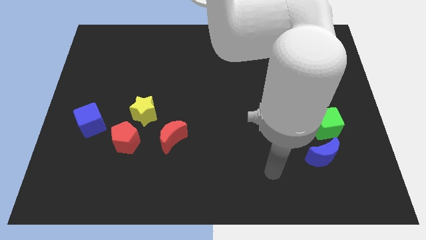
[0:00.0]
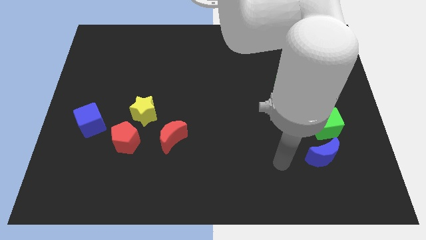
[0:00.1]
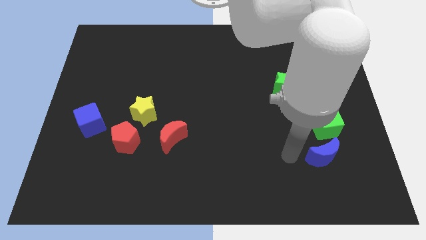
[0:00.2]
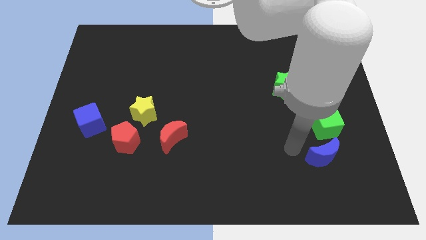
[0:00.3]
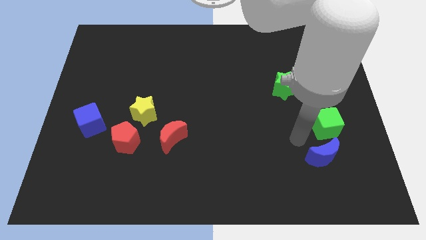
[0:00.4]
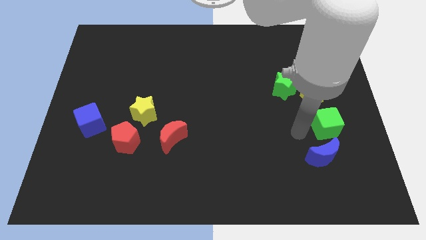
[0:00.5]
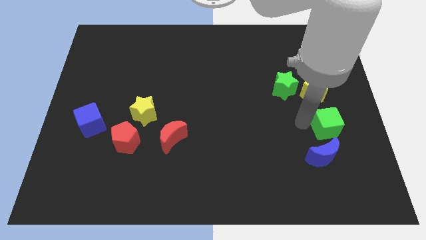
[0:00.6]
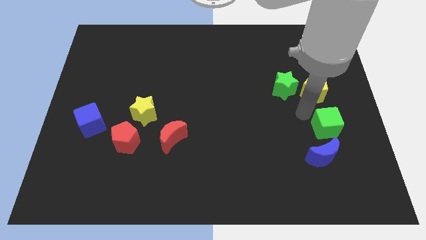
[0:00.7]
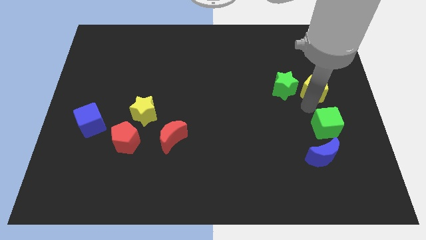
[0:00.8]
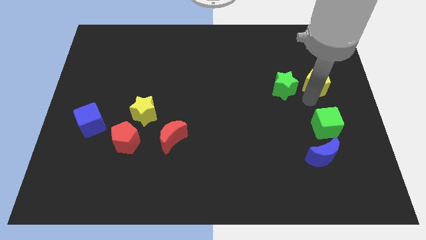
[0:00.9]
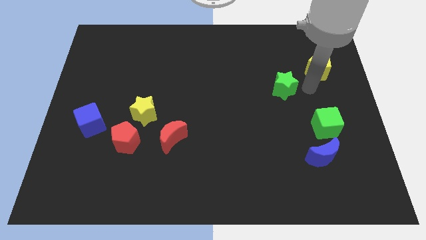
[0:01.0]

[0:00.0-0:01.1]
separate the green star from the yellow pentagon

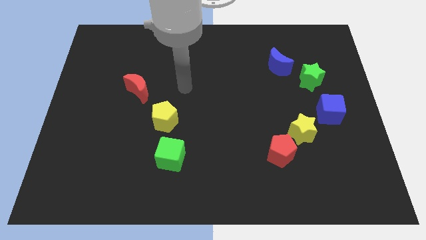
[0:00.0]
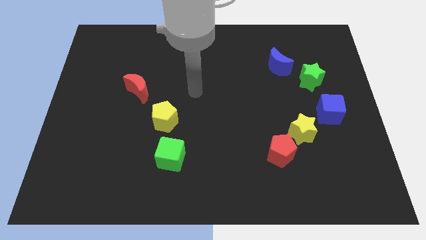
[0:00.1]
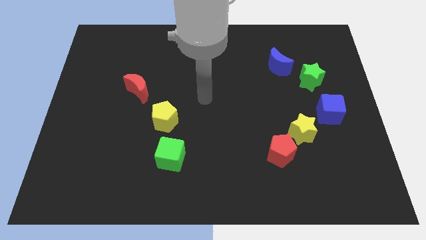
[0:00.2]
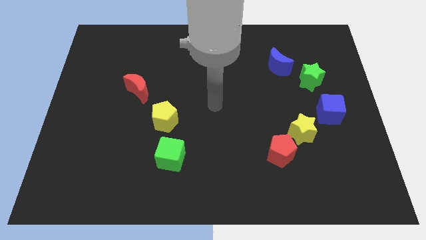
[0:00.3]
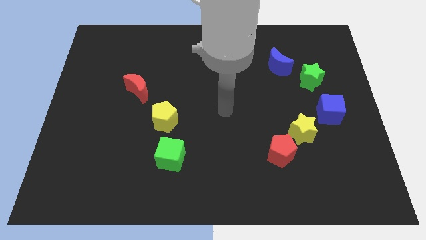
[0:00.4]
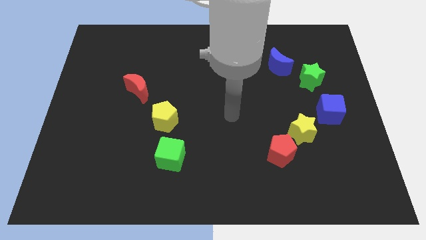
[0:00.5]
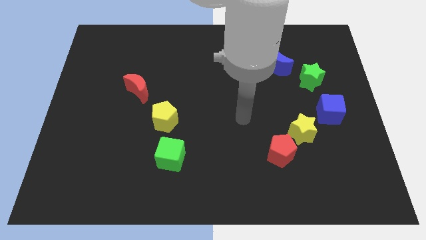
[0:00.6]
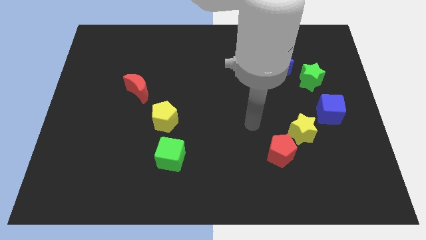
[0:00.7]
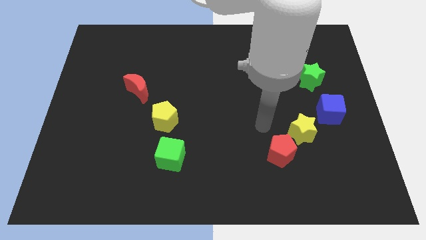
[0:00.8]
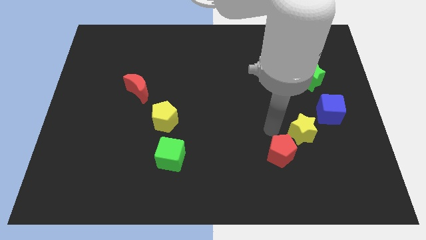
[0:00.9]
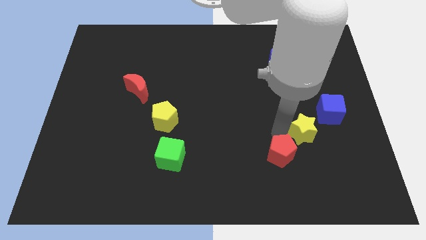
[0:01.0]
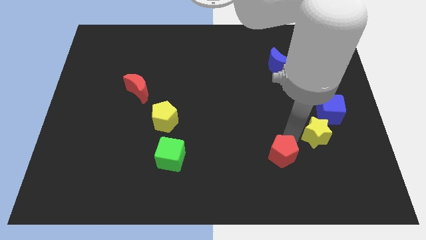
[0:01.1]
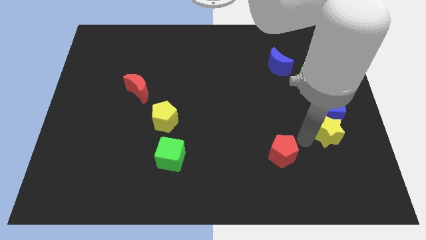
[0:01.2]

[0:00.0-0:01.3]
move the red pentagon away from the yellow star

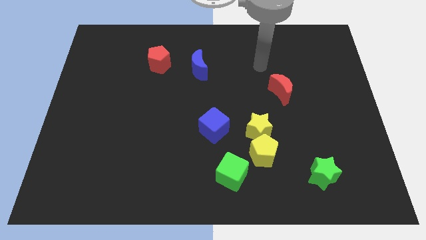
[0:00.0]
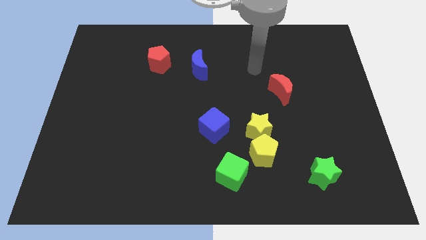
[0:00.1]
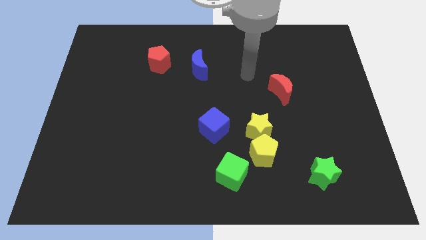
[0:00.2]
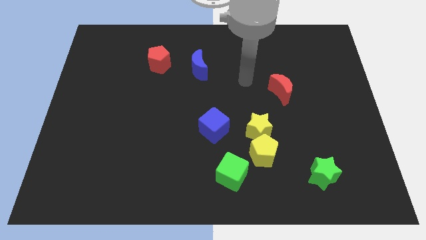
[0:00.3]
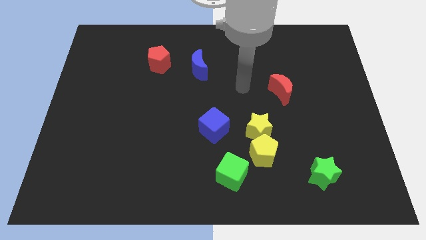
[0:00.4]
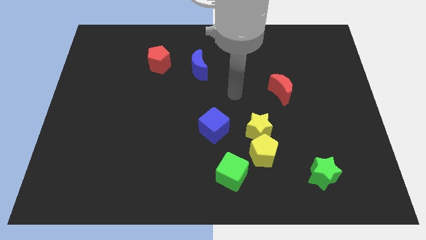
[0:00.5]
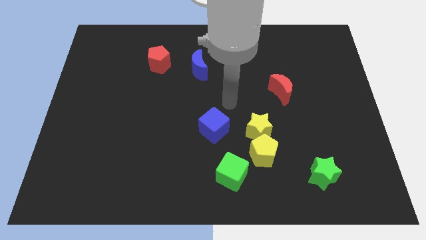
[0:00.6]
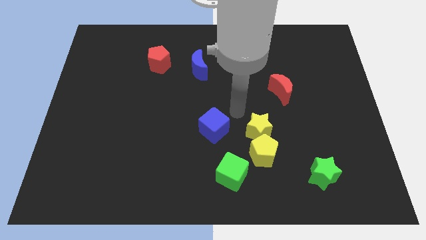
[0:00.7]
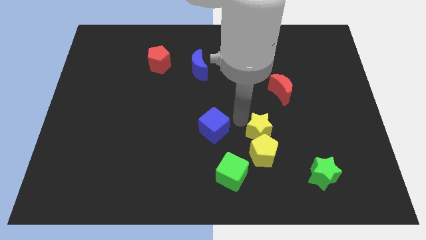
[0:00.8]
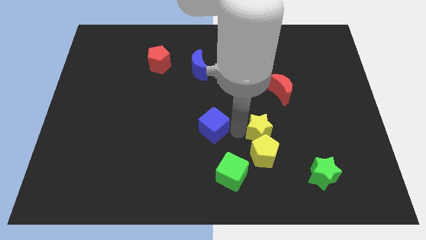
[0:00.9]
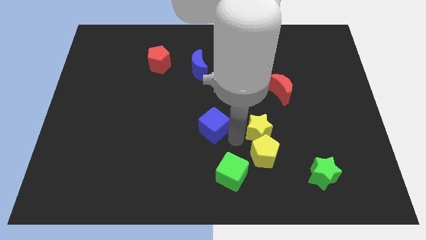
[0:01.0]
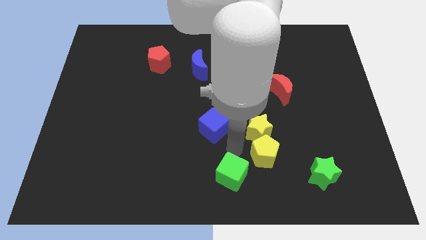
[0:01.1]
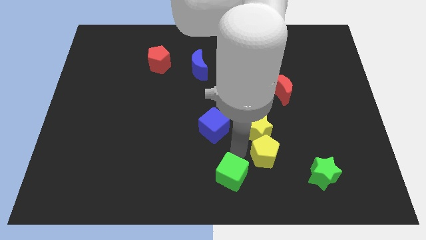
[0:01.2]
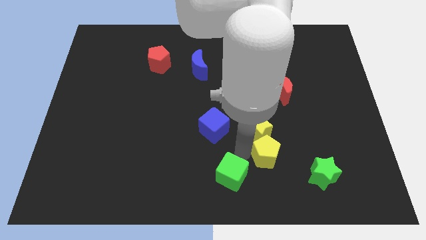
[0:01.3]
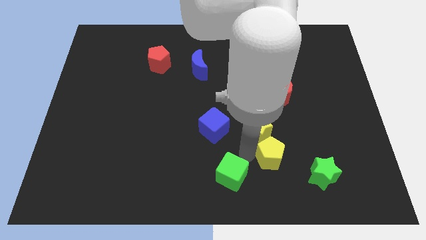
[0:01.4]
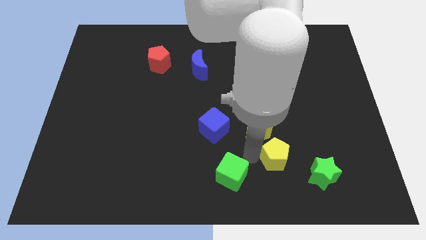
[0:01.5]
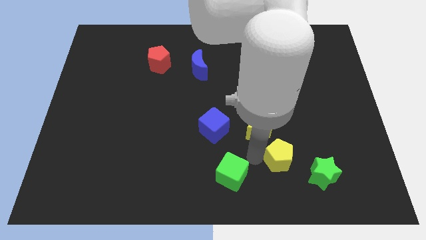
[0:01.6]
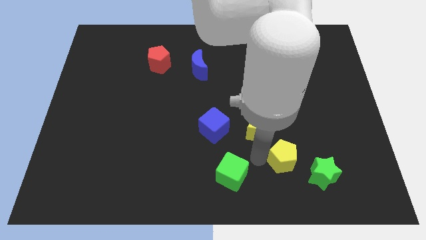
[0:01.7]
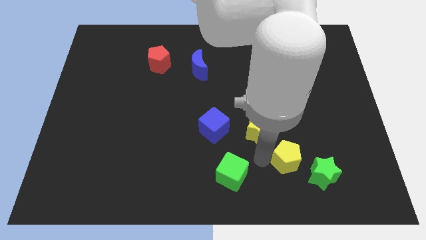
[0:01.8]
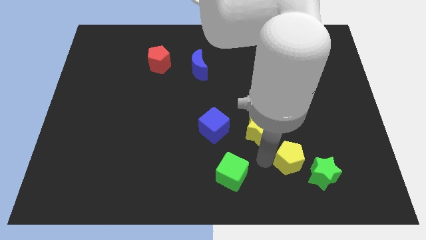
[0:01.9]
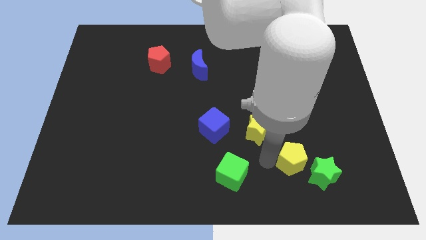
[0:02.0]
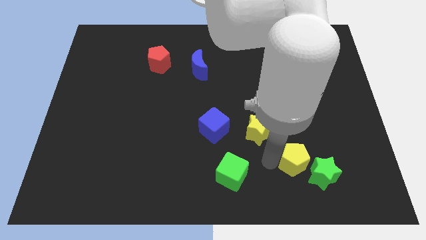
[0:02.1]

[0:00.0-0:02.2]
move the yellow pentagon away from the yellow star and green cube

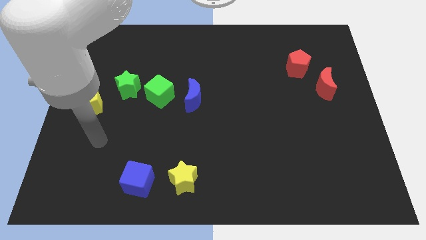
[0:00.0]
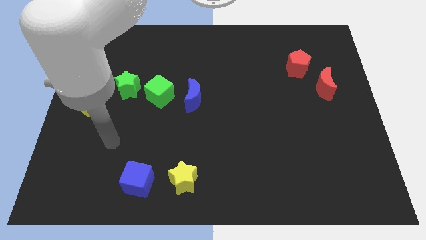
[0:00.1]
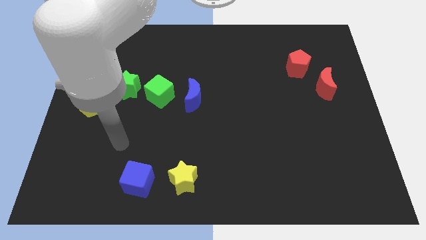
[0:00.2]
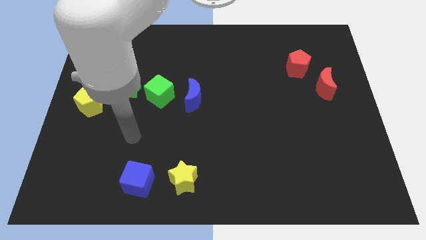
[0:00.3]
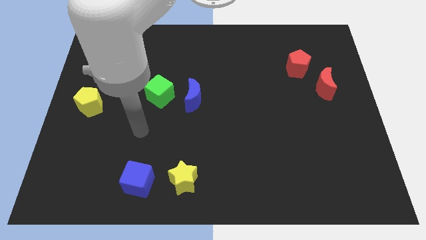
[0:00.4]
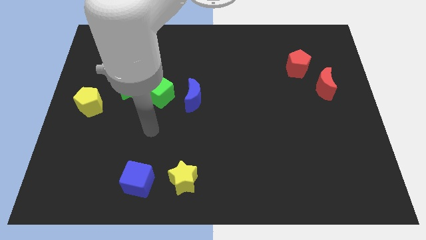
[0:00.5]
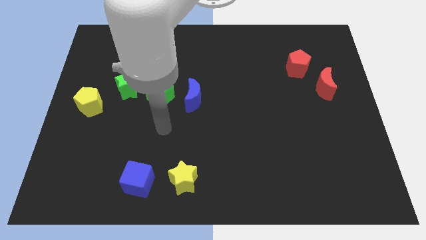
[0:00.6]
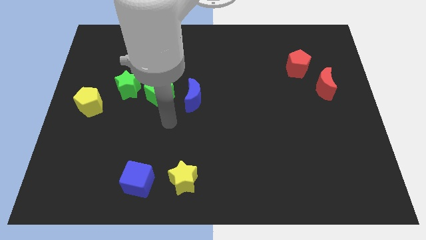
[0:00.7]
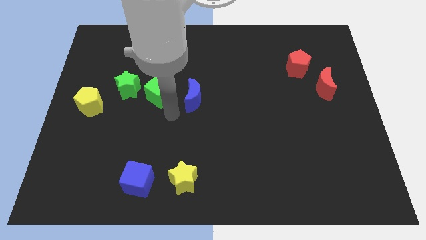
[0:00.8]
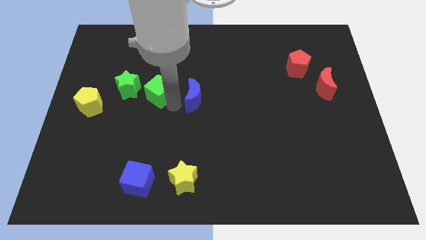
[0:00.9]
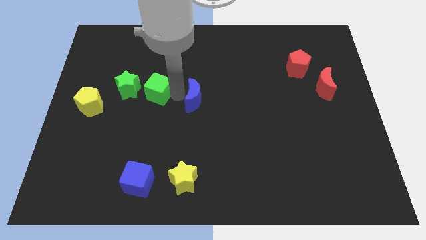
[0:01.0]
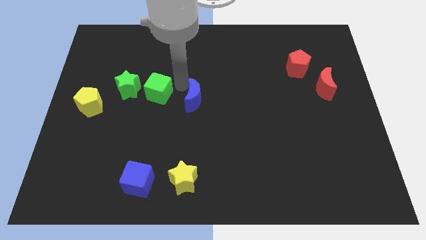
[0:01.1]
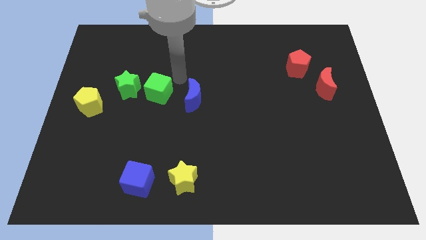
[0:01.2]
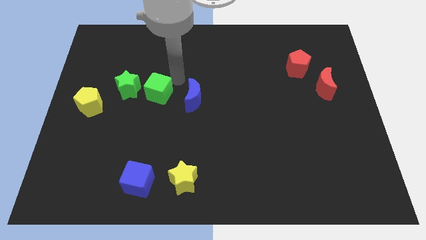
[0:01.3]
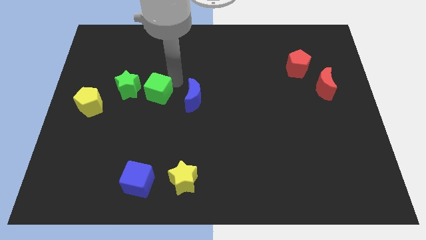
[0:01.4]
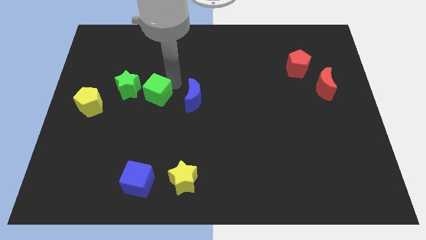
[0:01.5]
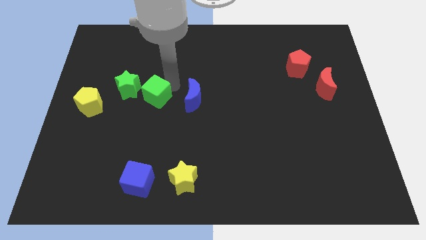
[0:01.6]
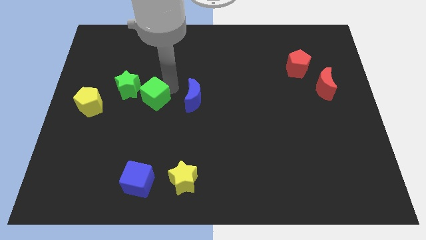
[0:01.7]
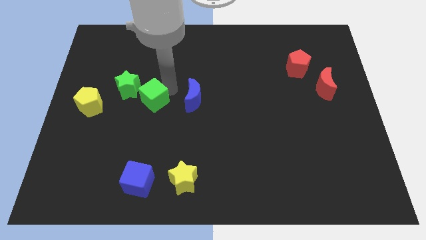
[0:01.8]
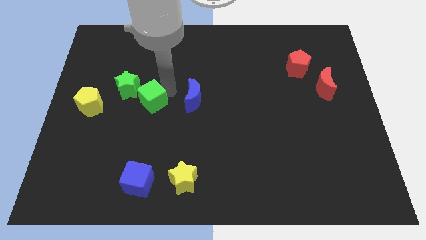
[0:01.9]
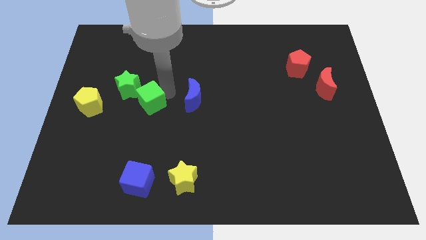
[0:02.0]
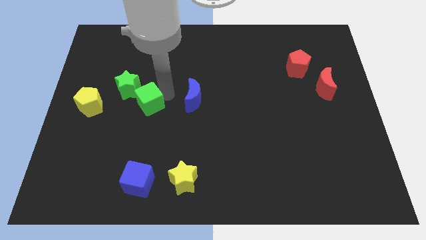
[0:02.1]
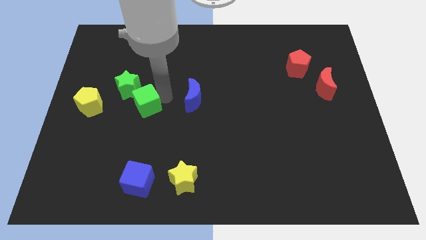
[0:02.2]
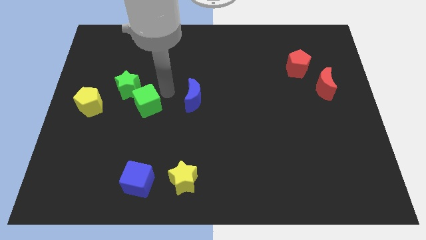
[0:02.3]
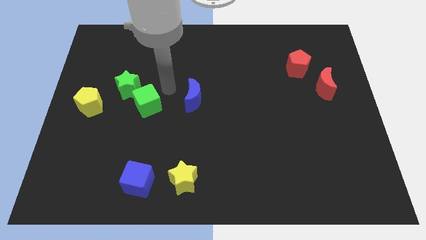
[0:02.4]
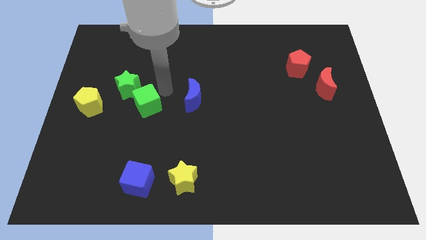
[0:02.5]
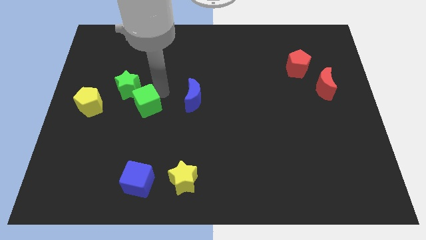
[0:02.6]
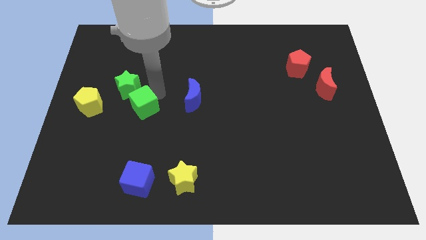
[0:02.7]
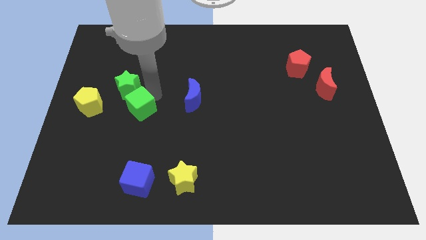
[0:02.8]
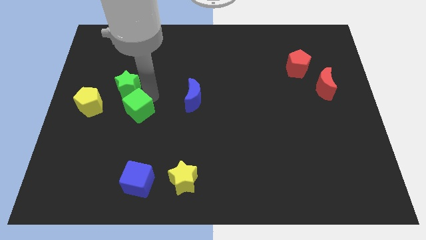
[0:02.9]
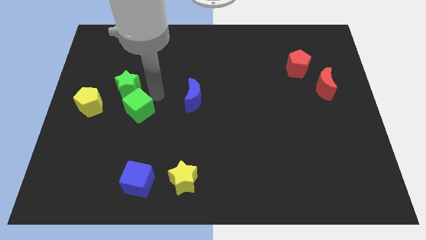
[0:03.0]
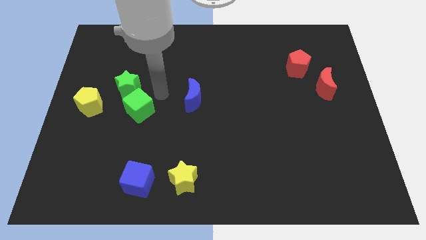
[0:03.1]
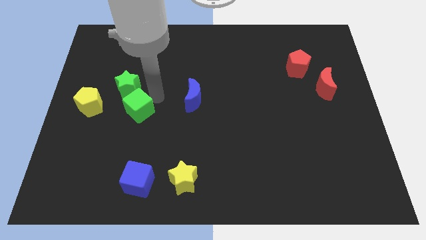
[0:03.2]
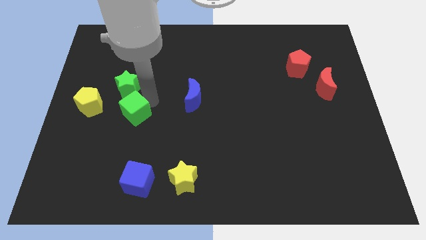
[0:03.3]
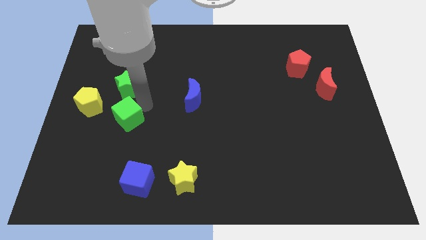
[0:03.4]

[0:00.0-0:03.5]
pull the green cube apart from the green star and blue moon

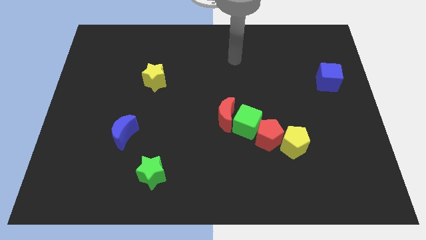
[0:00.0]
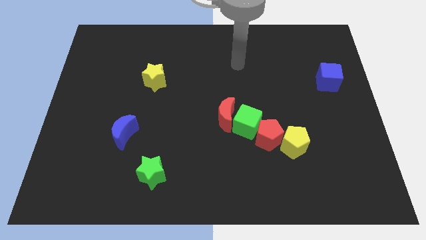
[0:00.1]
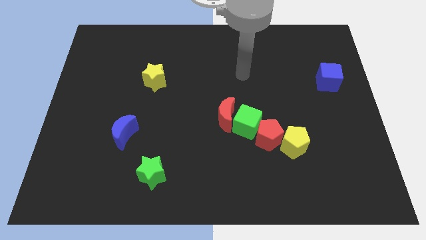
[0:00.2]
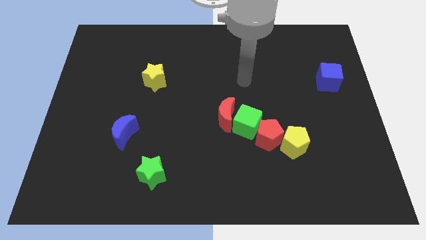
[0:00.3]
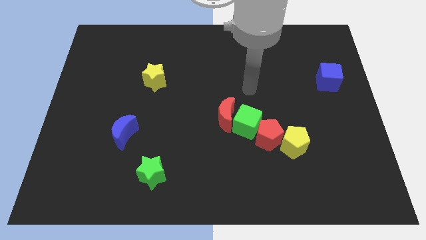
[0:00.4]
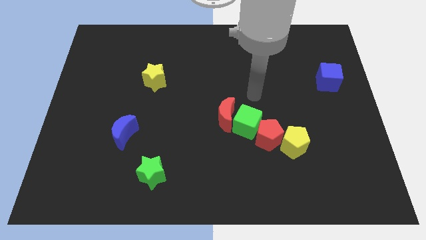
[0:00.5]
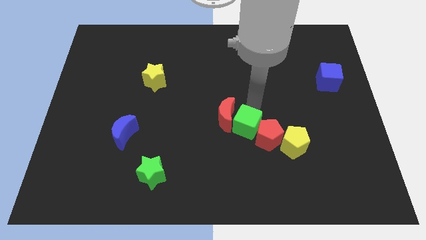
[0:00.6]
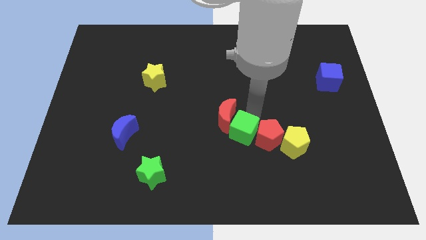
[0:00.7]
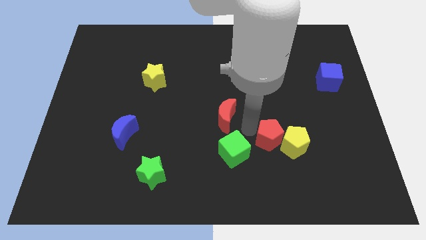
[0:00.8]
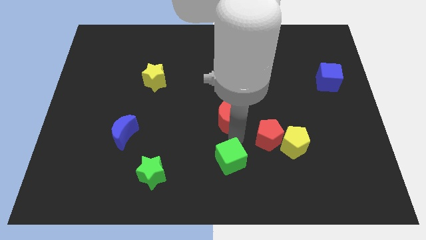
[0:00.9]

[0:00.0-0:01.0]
move the red moon away from the green cube
